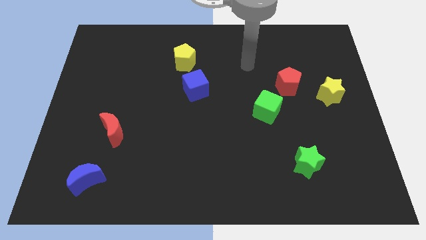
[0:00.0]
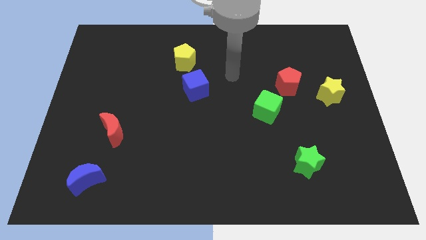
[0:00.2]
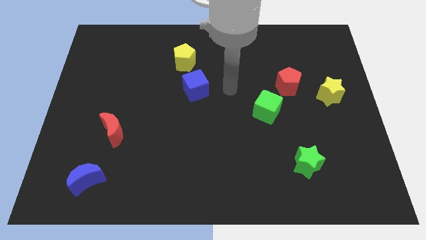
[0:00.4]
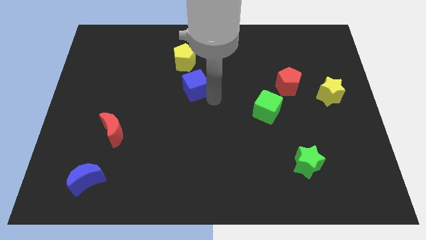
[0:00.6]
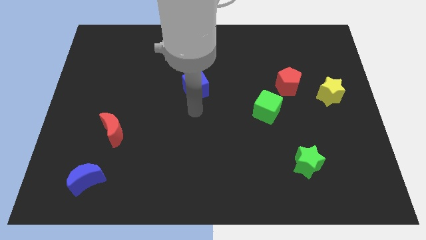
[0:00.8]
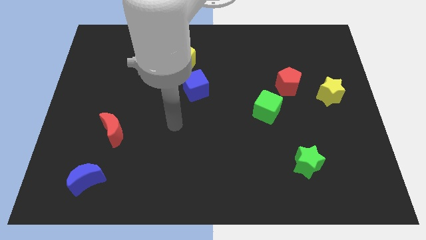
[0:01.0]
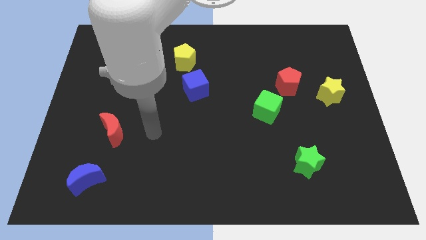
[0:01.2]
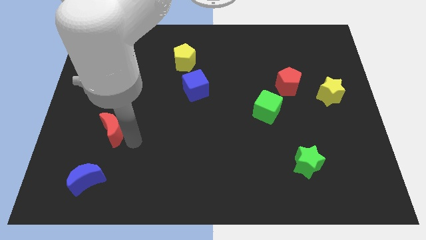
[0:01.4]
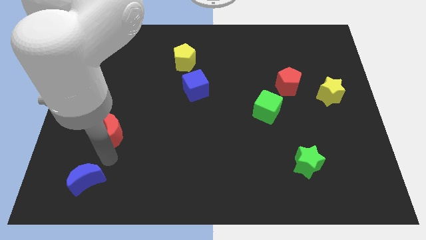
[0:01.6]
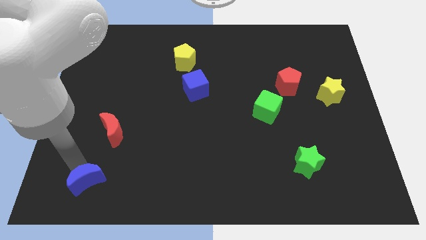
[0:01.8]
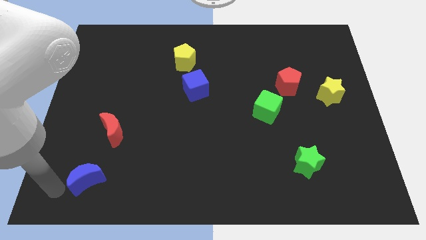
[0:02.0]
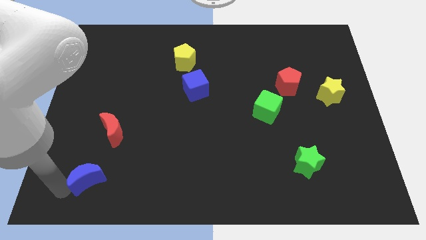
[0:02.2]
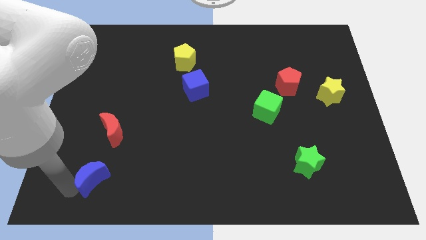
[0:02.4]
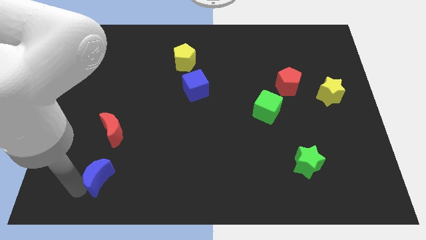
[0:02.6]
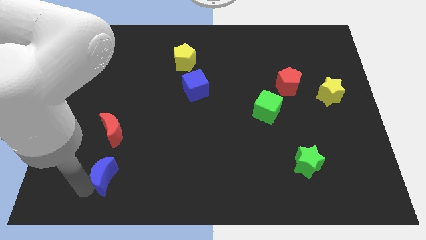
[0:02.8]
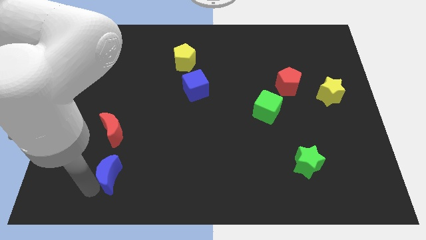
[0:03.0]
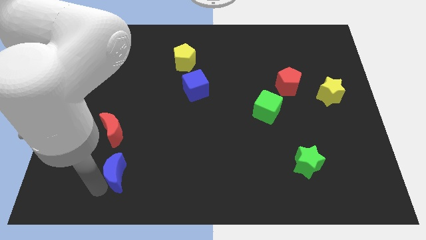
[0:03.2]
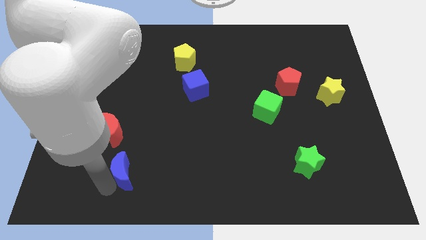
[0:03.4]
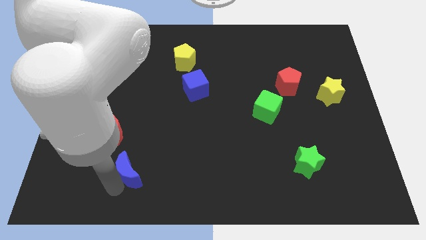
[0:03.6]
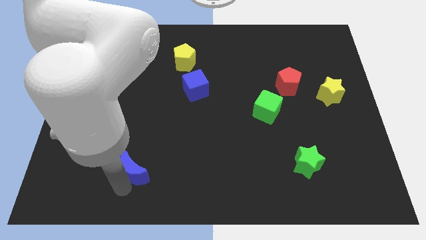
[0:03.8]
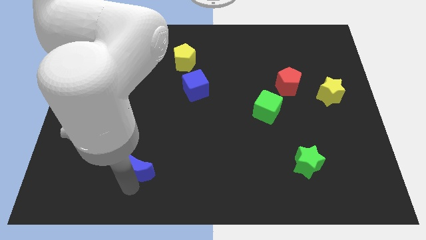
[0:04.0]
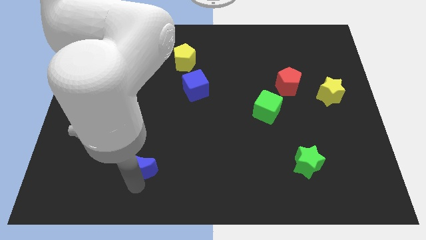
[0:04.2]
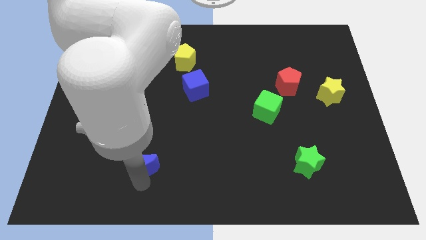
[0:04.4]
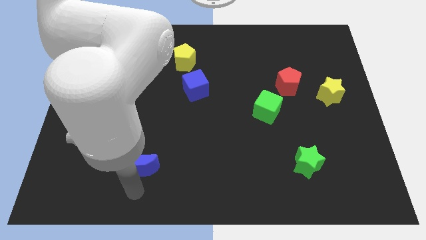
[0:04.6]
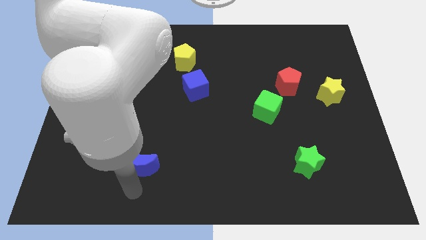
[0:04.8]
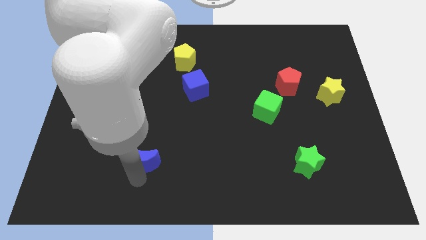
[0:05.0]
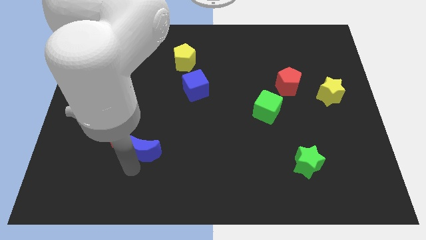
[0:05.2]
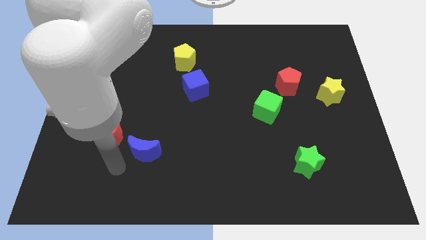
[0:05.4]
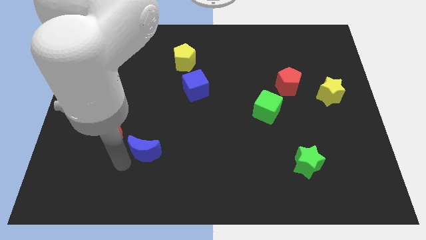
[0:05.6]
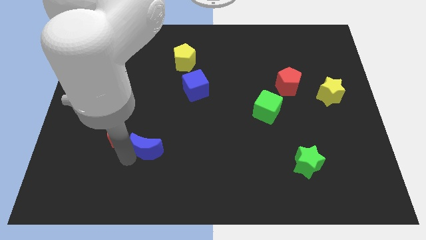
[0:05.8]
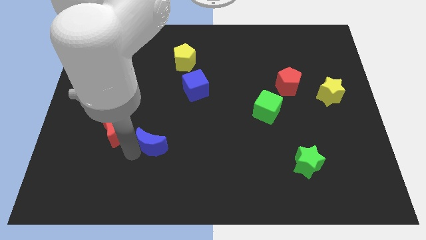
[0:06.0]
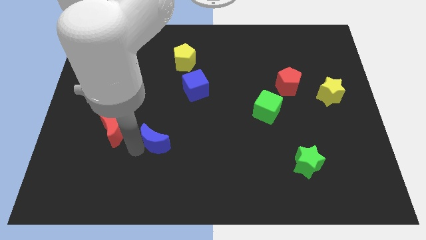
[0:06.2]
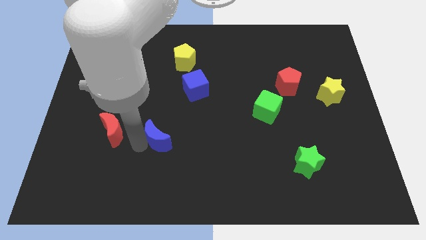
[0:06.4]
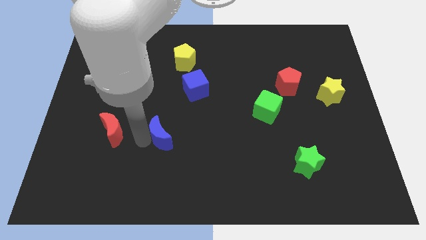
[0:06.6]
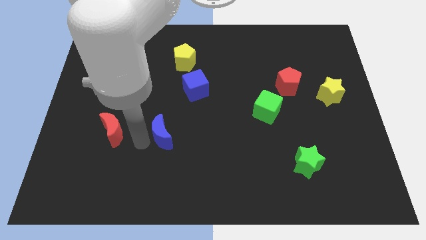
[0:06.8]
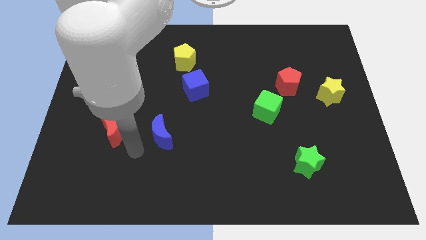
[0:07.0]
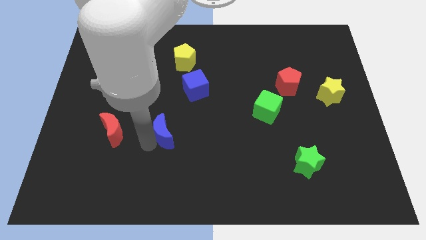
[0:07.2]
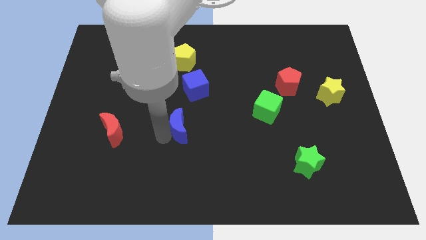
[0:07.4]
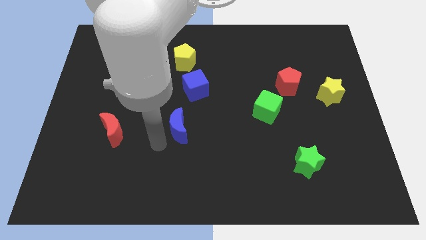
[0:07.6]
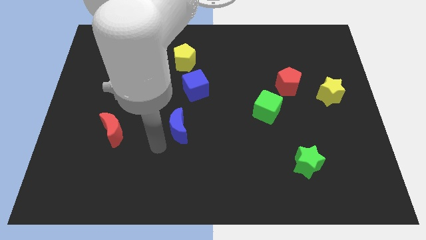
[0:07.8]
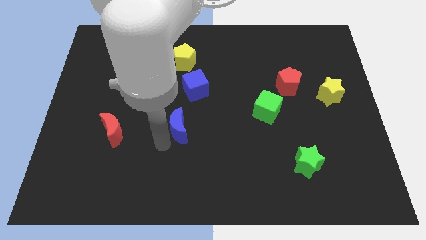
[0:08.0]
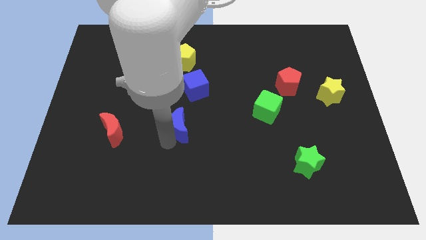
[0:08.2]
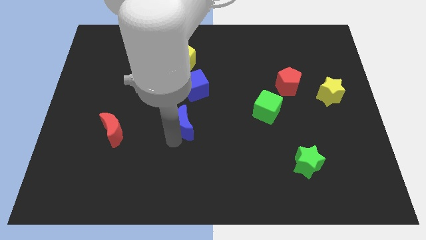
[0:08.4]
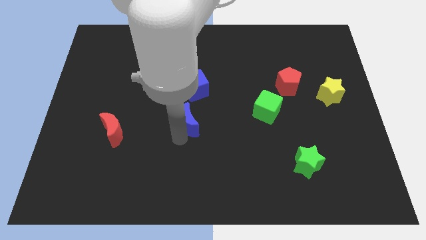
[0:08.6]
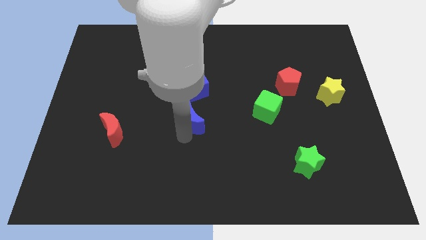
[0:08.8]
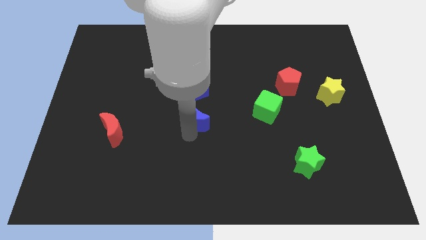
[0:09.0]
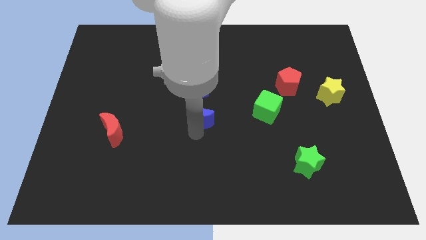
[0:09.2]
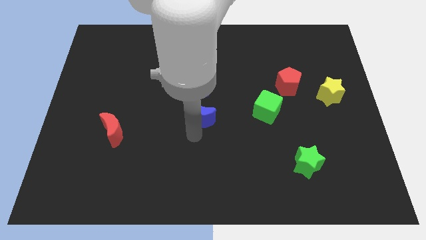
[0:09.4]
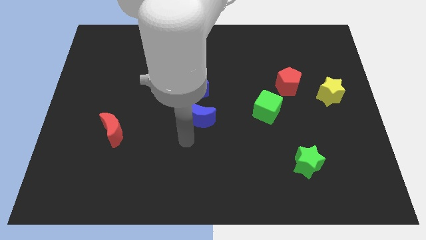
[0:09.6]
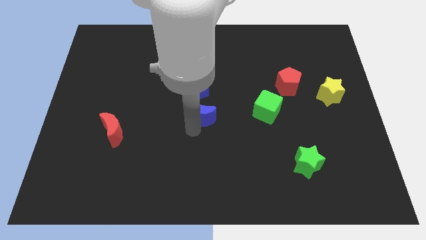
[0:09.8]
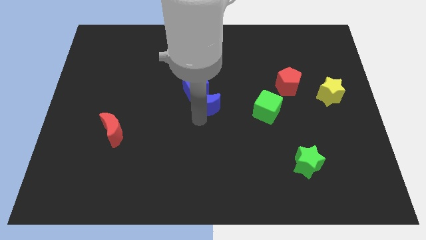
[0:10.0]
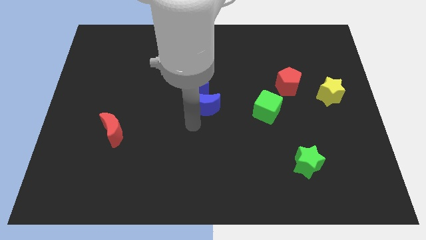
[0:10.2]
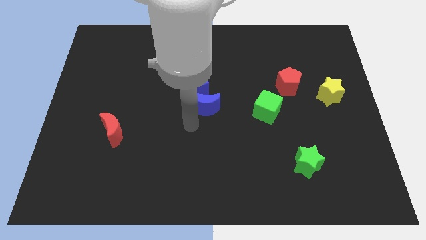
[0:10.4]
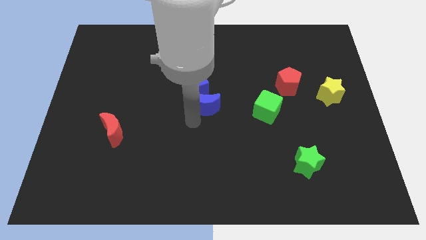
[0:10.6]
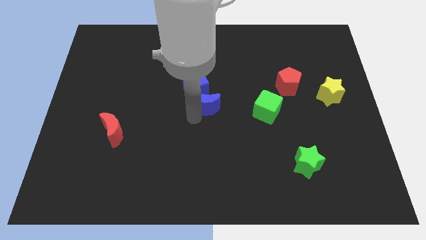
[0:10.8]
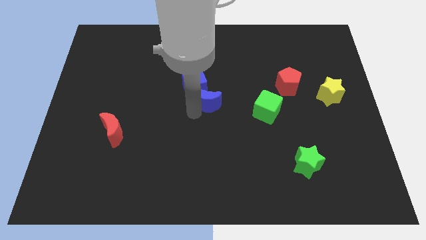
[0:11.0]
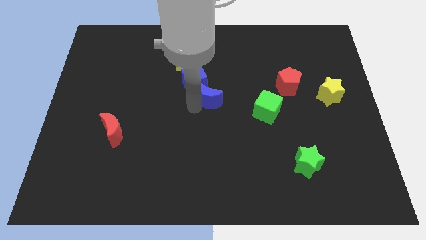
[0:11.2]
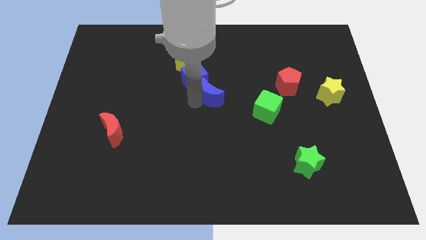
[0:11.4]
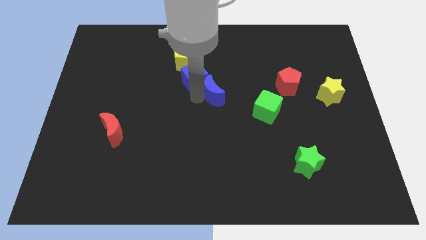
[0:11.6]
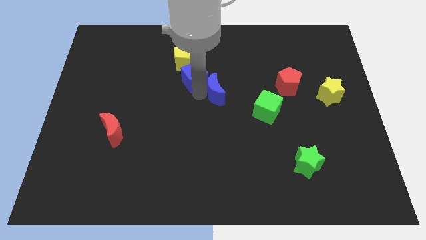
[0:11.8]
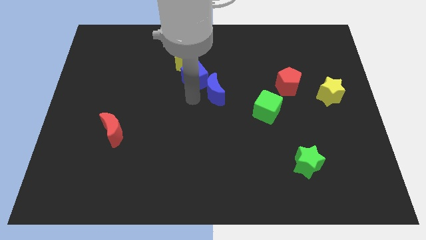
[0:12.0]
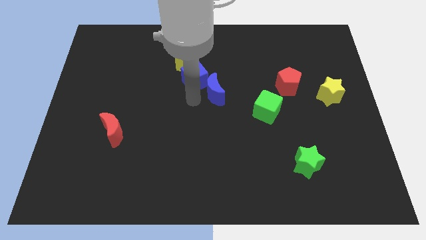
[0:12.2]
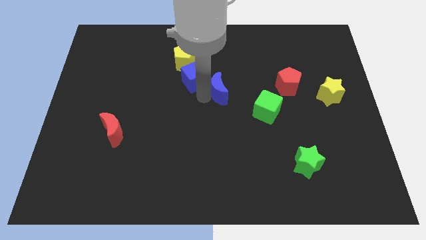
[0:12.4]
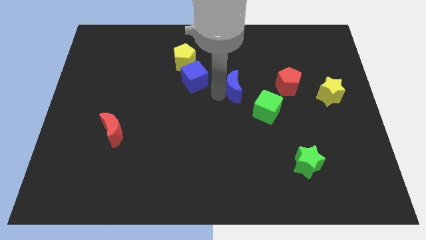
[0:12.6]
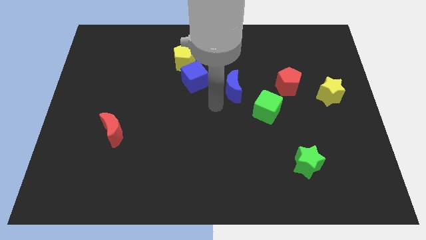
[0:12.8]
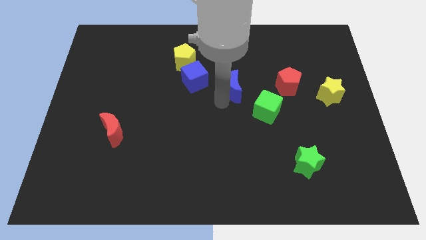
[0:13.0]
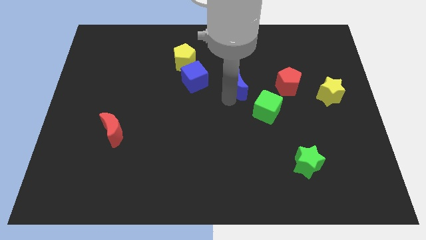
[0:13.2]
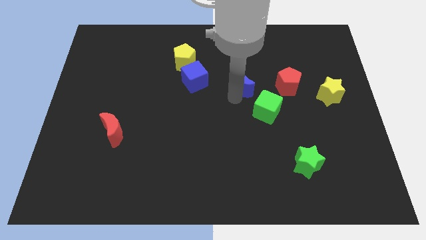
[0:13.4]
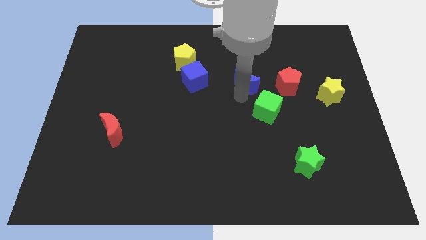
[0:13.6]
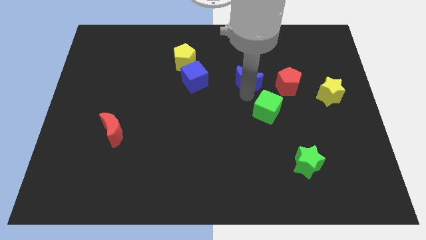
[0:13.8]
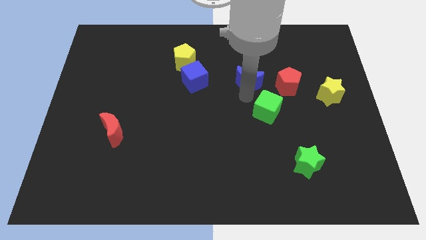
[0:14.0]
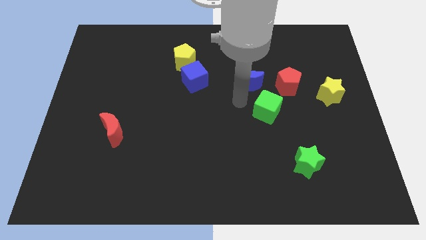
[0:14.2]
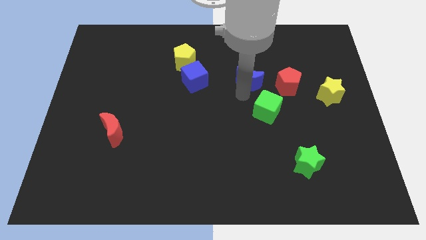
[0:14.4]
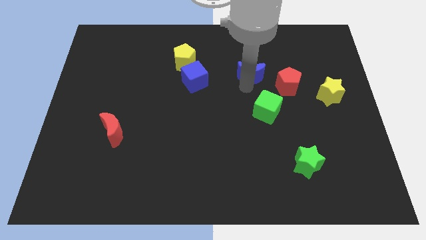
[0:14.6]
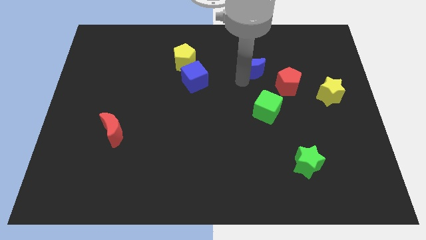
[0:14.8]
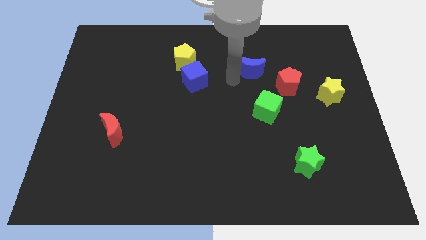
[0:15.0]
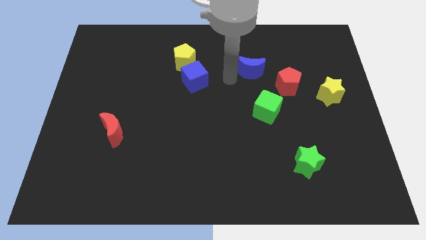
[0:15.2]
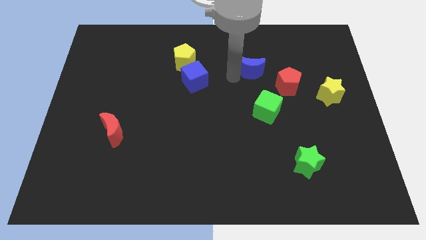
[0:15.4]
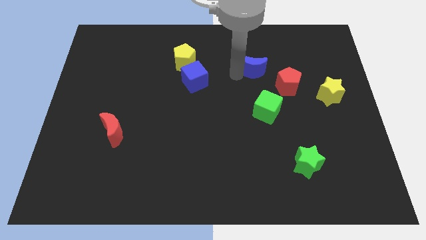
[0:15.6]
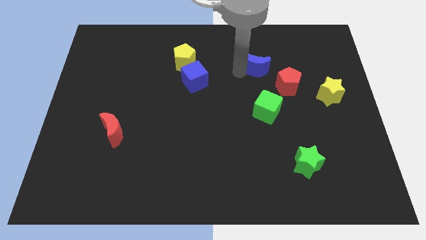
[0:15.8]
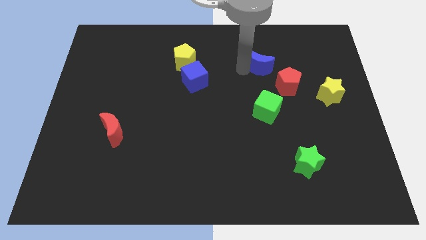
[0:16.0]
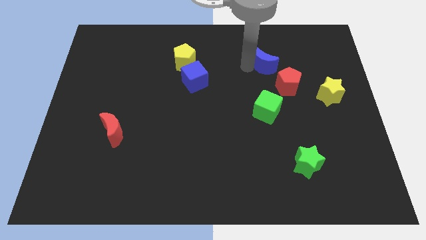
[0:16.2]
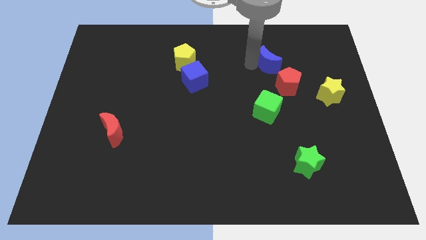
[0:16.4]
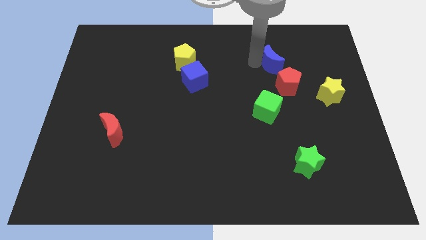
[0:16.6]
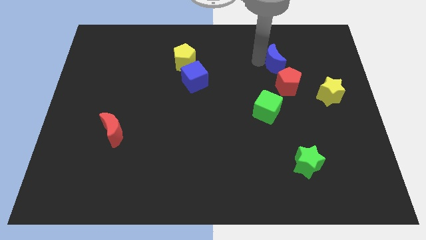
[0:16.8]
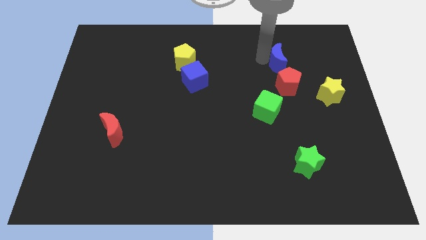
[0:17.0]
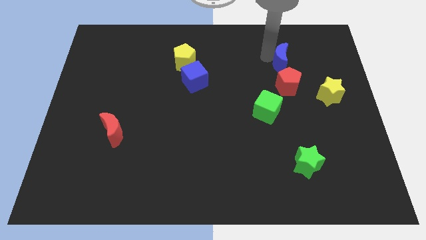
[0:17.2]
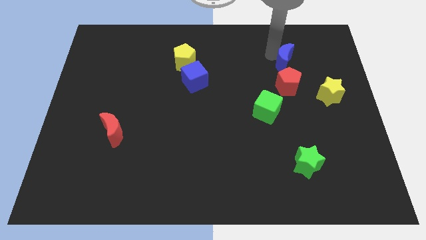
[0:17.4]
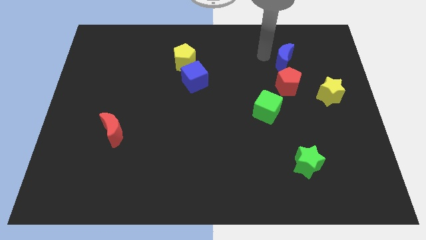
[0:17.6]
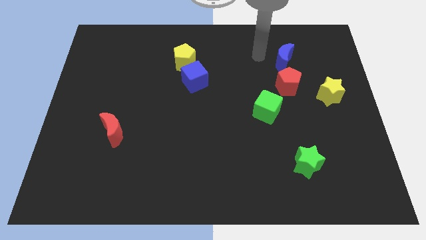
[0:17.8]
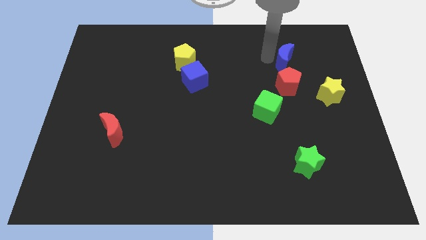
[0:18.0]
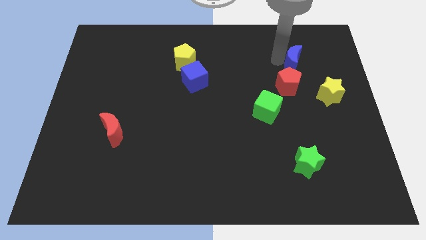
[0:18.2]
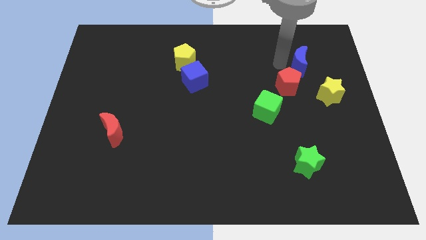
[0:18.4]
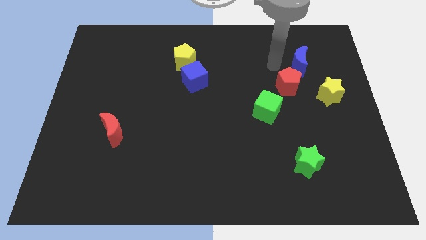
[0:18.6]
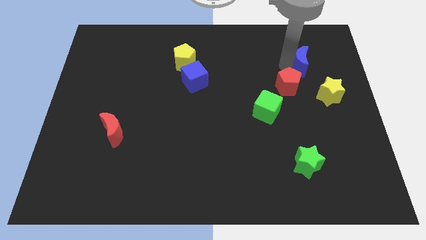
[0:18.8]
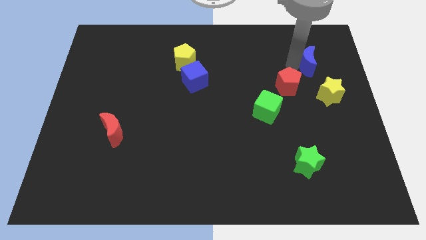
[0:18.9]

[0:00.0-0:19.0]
slide the blue moon to the top of the yellow star
